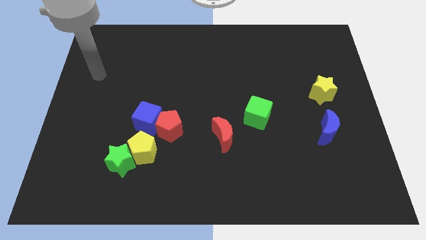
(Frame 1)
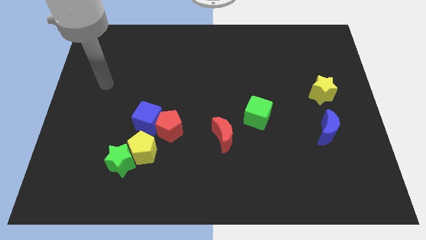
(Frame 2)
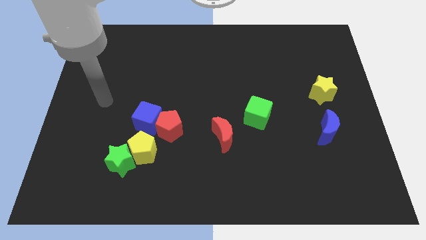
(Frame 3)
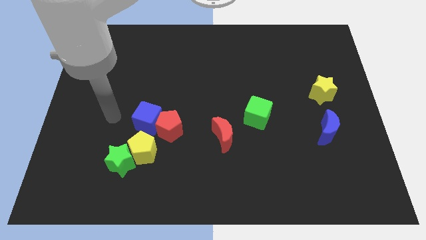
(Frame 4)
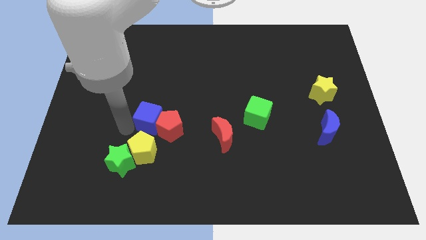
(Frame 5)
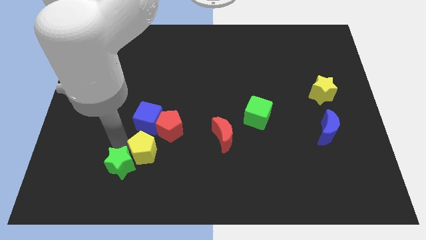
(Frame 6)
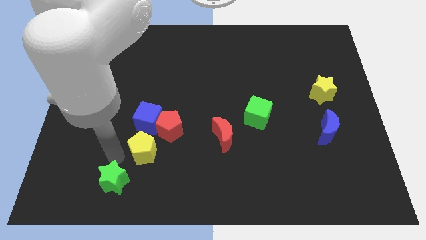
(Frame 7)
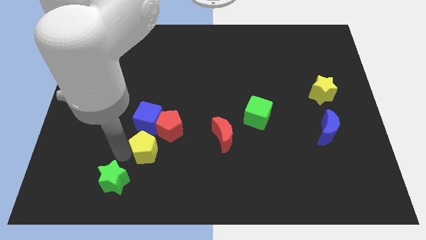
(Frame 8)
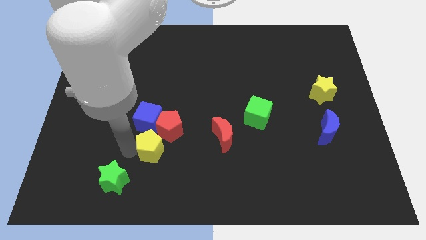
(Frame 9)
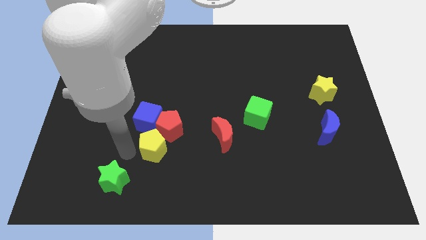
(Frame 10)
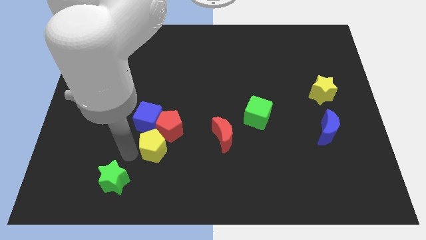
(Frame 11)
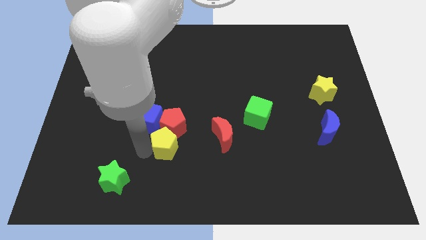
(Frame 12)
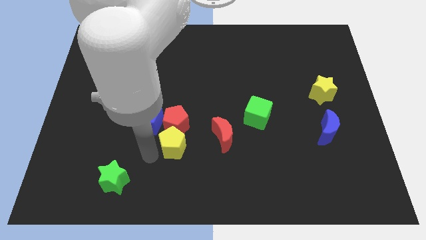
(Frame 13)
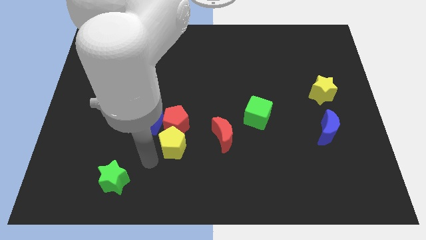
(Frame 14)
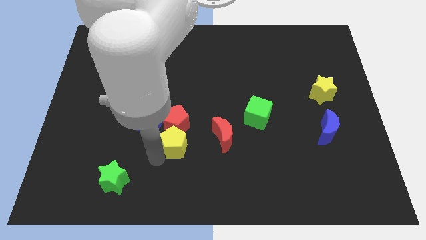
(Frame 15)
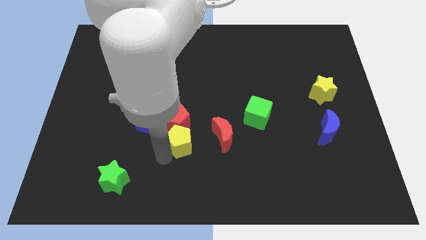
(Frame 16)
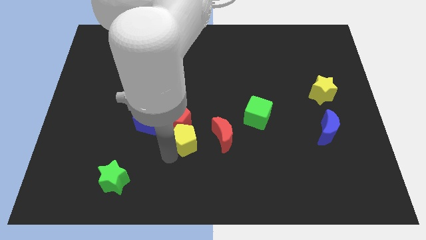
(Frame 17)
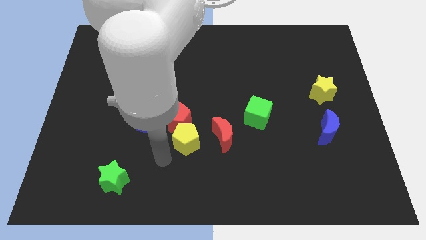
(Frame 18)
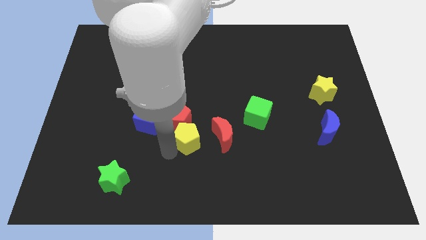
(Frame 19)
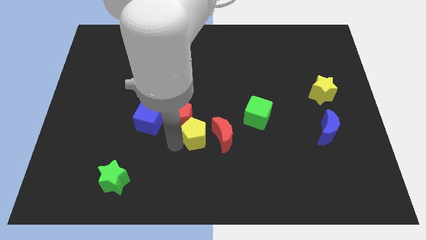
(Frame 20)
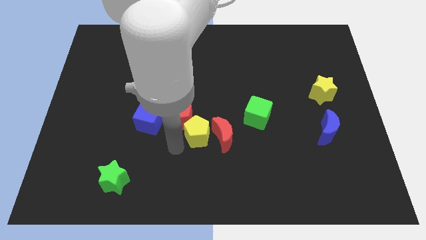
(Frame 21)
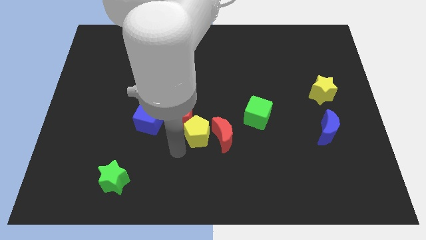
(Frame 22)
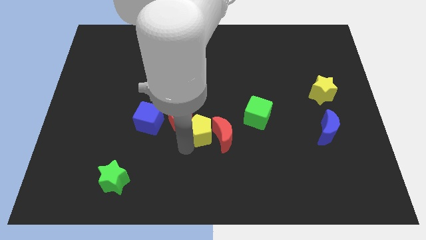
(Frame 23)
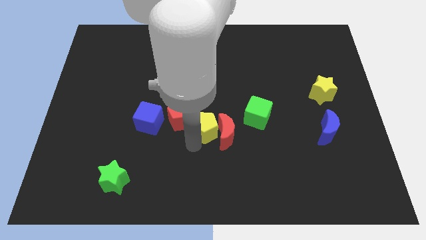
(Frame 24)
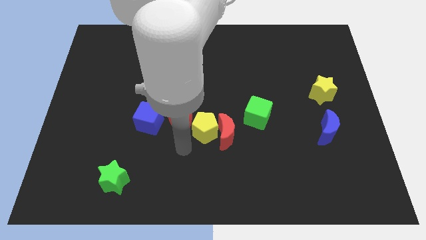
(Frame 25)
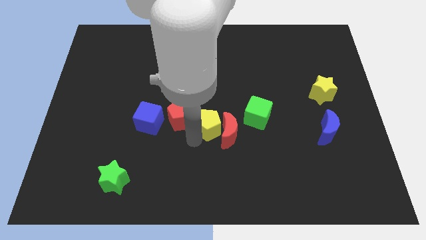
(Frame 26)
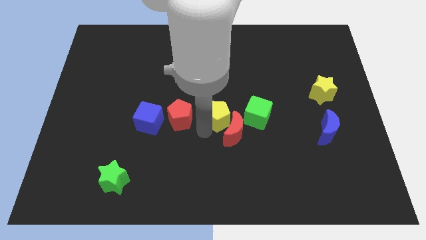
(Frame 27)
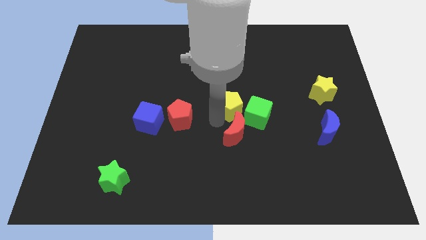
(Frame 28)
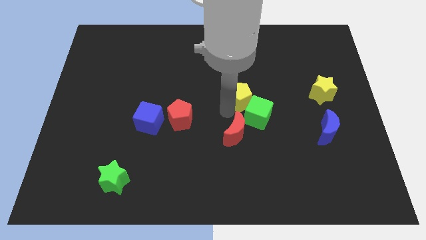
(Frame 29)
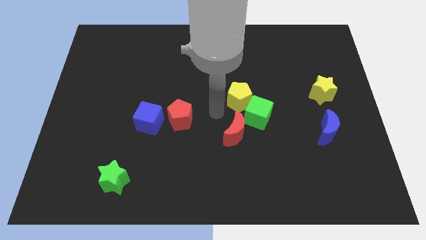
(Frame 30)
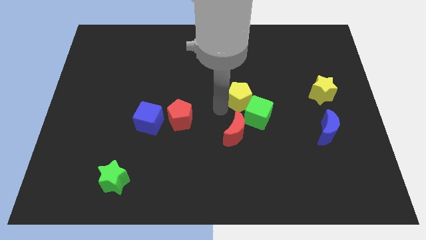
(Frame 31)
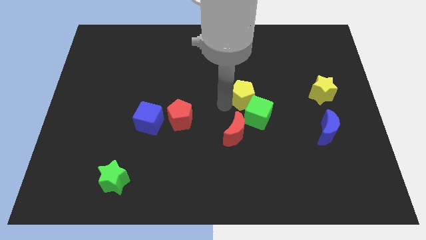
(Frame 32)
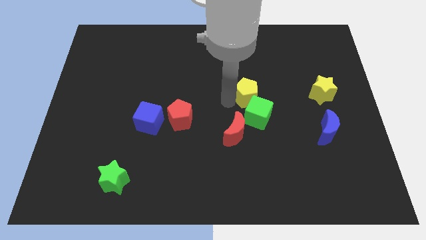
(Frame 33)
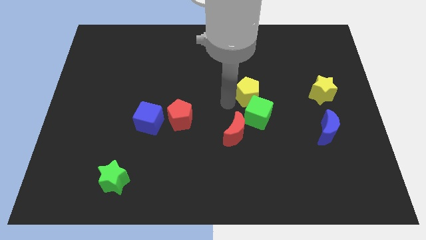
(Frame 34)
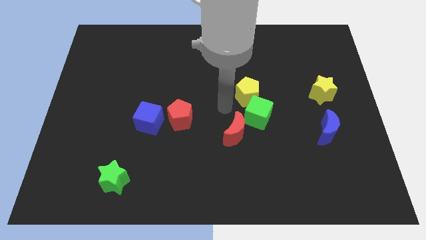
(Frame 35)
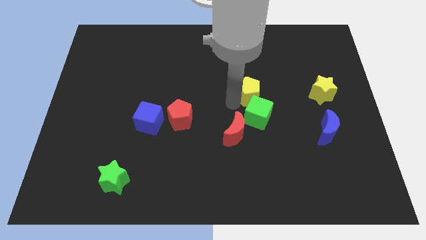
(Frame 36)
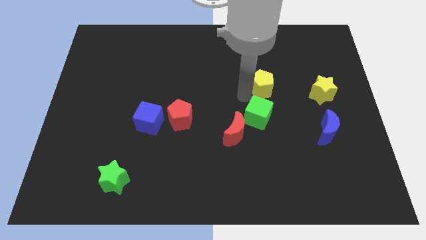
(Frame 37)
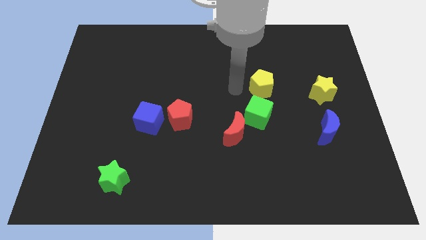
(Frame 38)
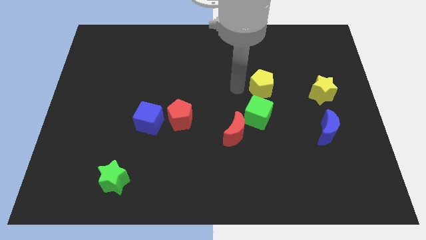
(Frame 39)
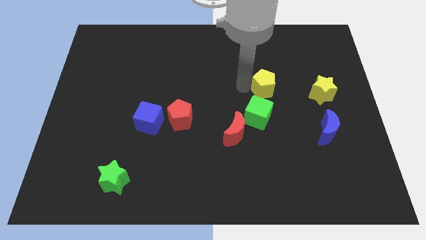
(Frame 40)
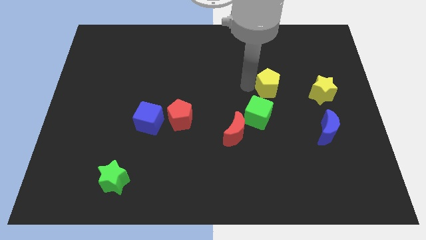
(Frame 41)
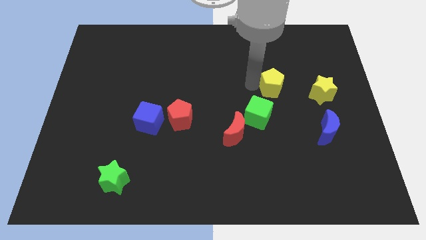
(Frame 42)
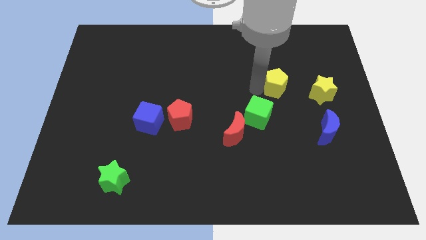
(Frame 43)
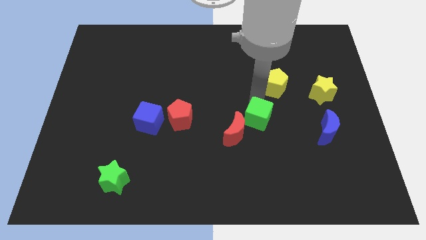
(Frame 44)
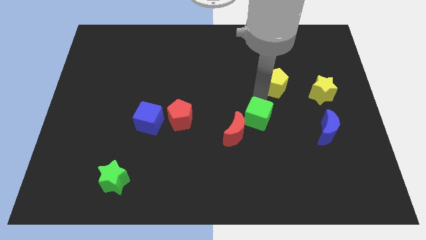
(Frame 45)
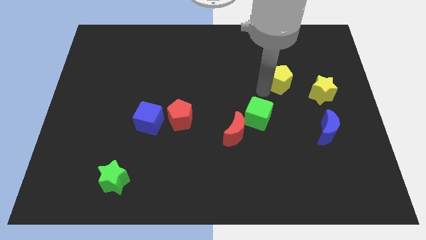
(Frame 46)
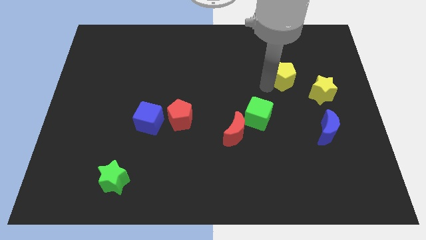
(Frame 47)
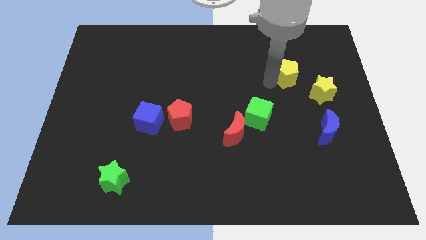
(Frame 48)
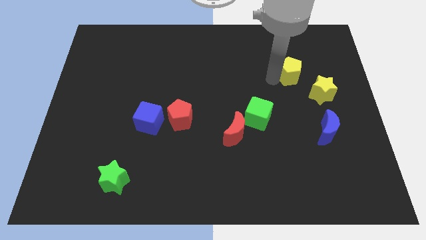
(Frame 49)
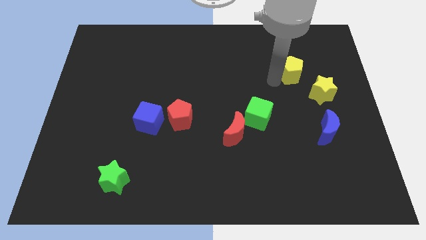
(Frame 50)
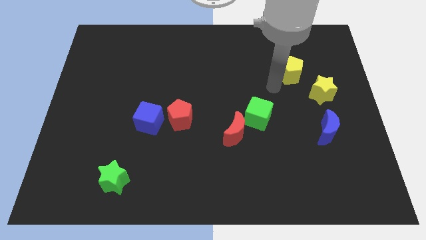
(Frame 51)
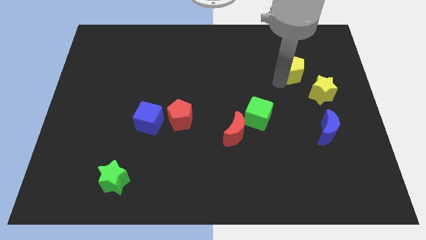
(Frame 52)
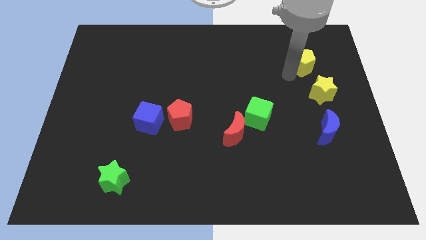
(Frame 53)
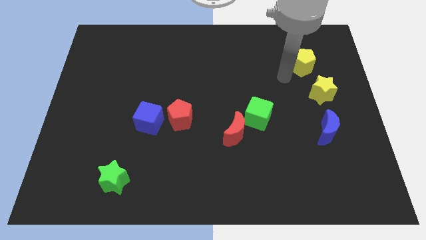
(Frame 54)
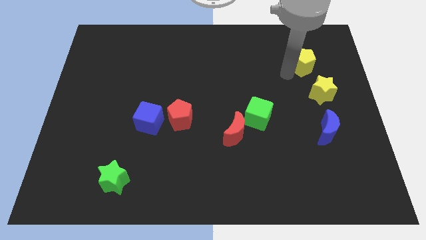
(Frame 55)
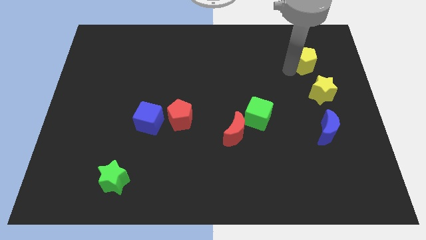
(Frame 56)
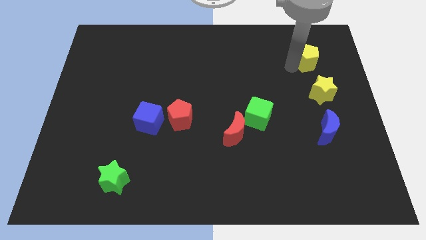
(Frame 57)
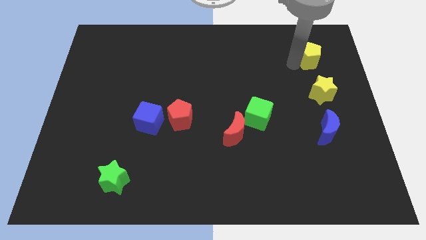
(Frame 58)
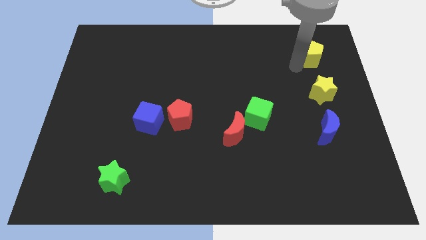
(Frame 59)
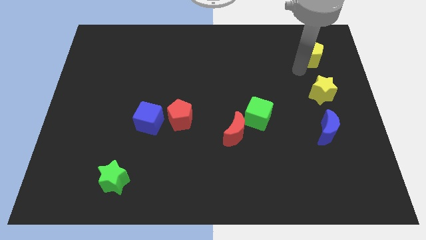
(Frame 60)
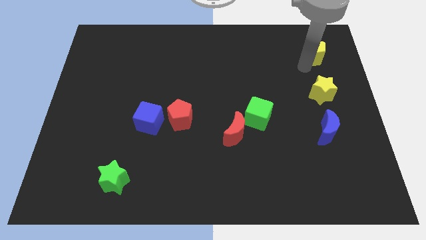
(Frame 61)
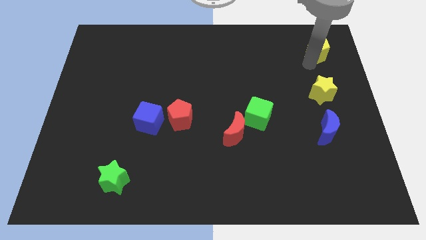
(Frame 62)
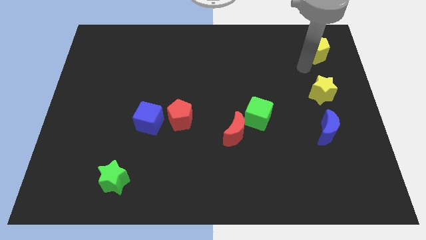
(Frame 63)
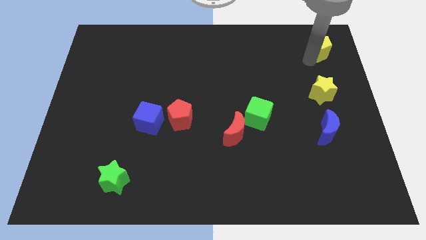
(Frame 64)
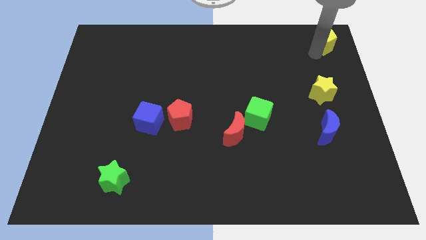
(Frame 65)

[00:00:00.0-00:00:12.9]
put the yellow pentagon to the upper right corner
